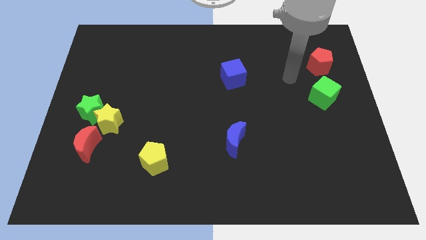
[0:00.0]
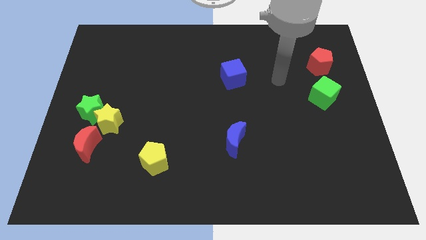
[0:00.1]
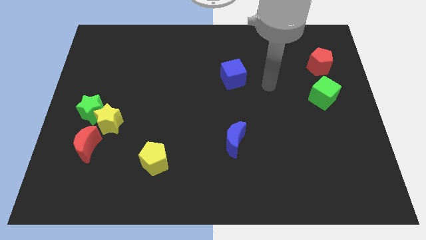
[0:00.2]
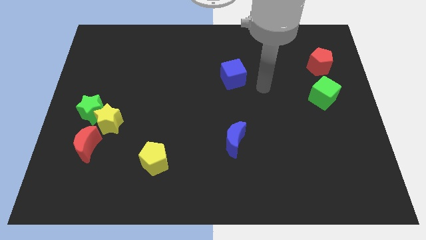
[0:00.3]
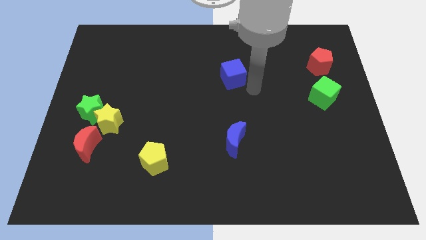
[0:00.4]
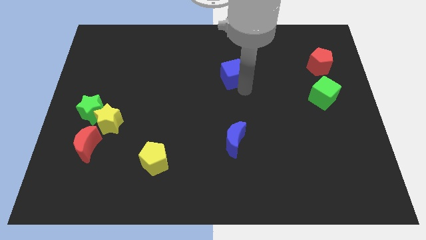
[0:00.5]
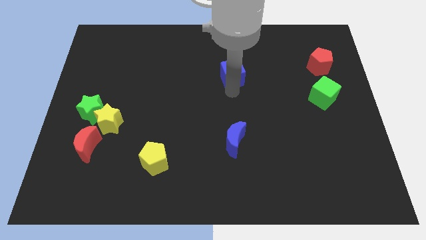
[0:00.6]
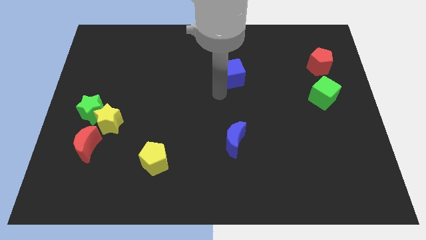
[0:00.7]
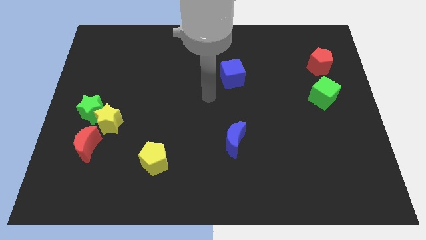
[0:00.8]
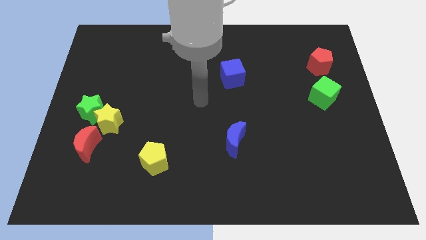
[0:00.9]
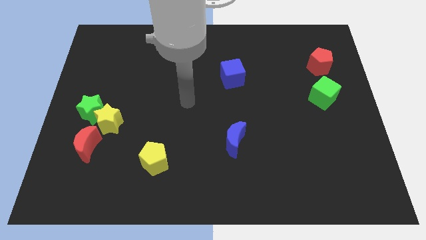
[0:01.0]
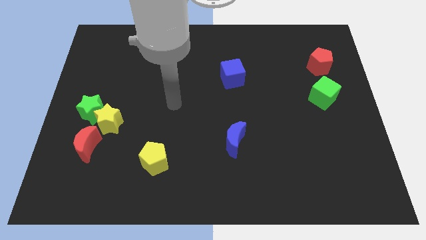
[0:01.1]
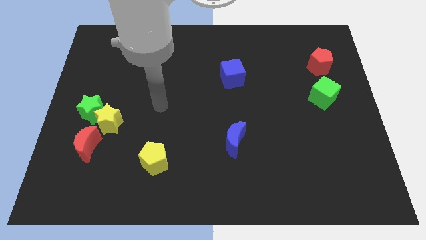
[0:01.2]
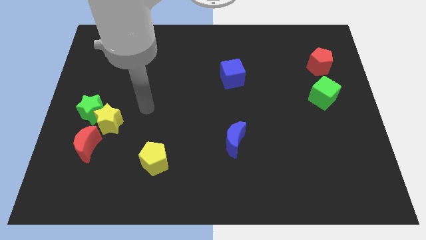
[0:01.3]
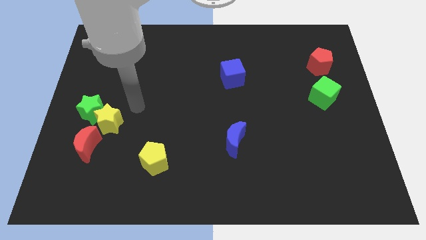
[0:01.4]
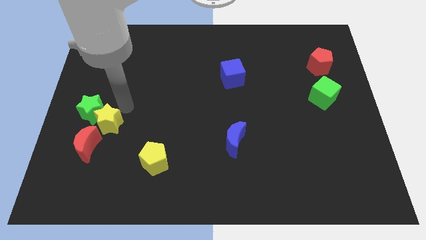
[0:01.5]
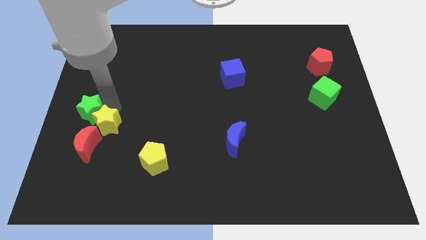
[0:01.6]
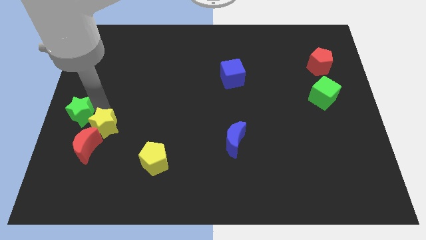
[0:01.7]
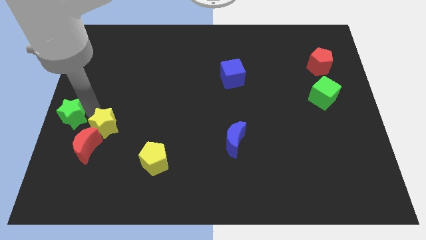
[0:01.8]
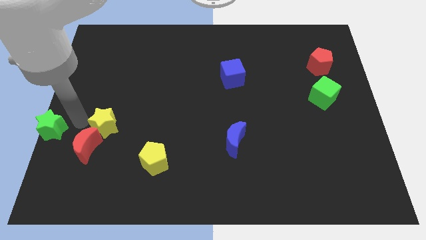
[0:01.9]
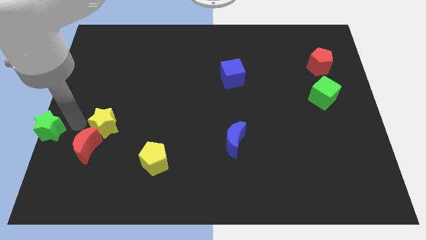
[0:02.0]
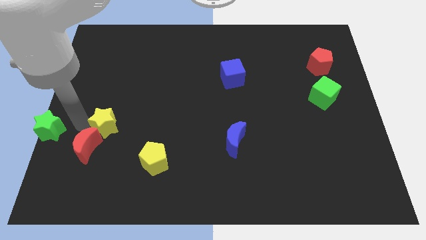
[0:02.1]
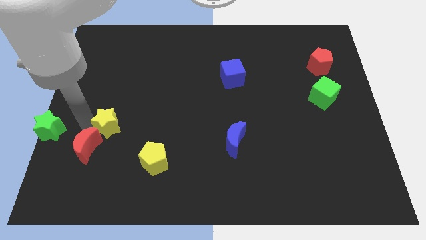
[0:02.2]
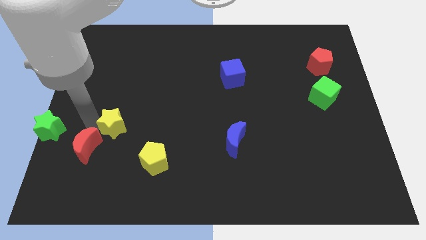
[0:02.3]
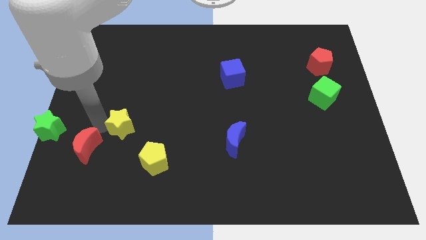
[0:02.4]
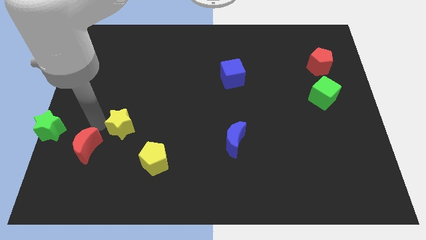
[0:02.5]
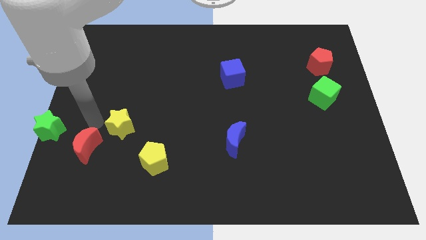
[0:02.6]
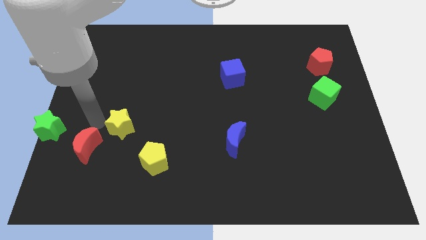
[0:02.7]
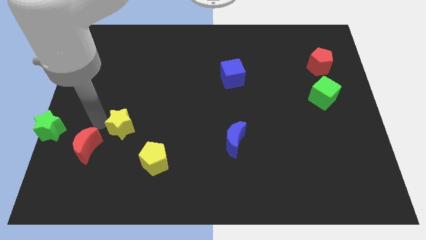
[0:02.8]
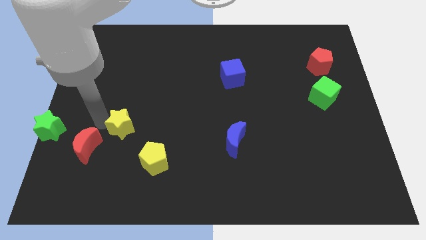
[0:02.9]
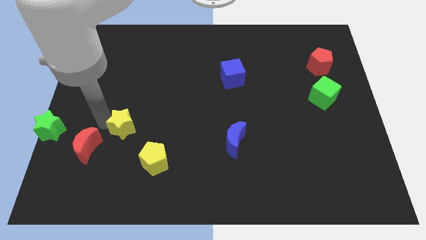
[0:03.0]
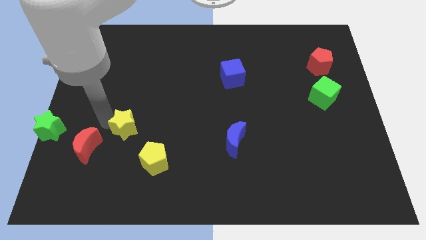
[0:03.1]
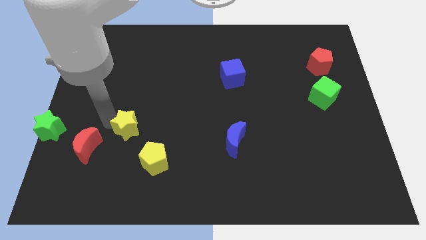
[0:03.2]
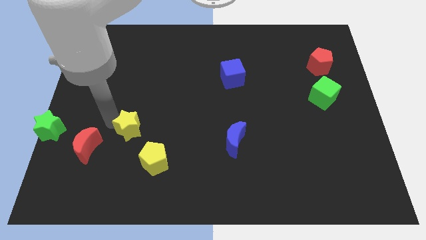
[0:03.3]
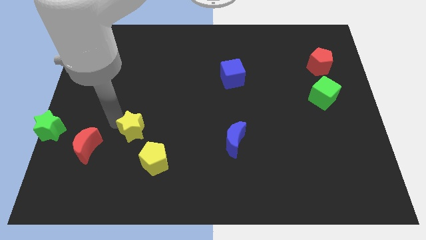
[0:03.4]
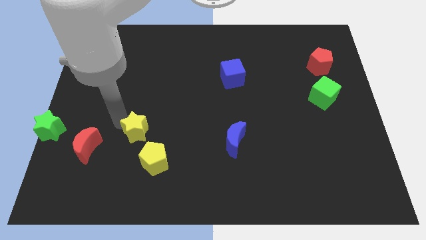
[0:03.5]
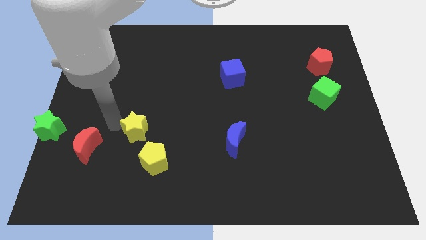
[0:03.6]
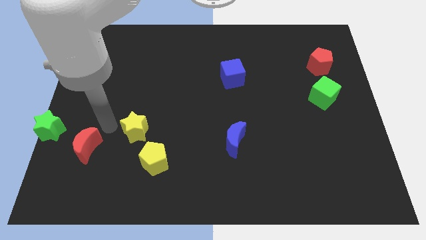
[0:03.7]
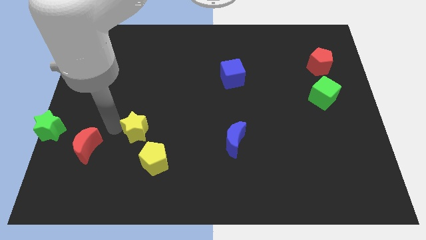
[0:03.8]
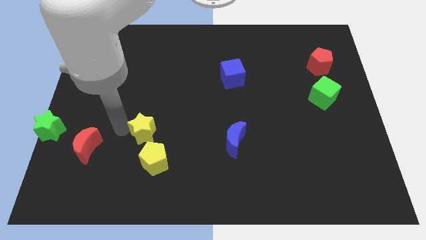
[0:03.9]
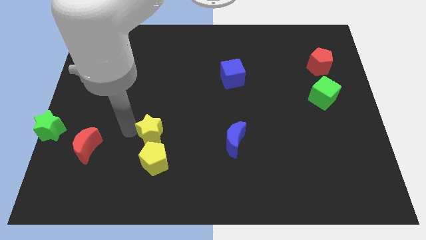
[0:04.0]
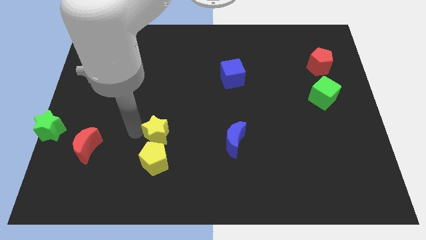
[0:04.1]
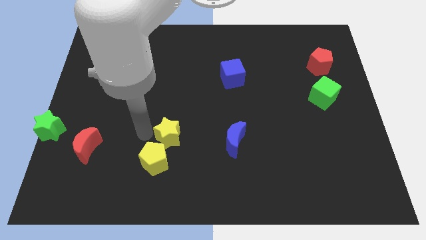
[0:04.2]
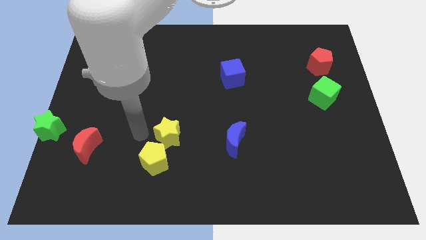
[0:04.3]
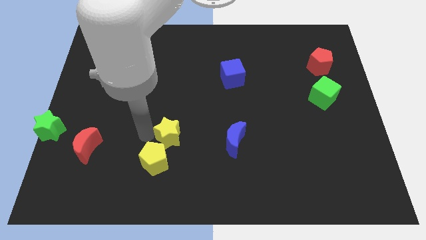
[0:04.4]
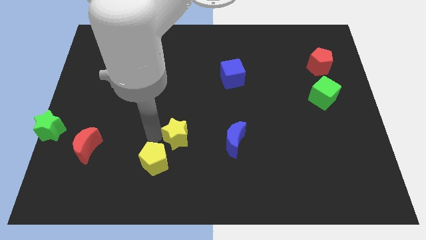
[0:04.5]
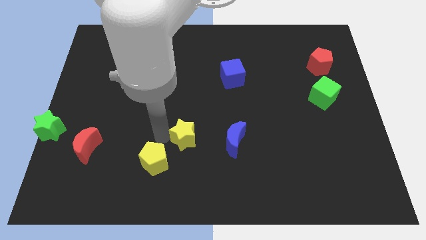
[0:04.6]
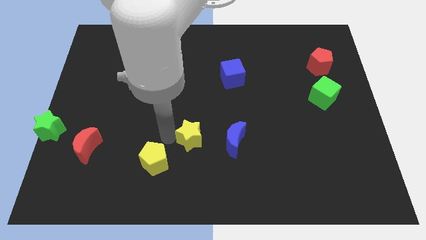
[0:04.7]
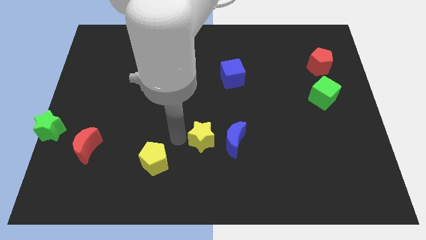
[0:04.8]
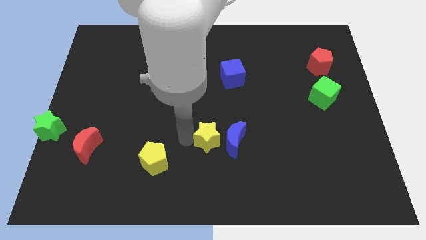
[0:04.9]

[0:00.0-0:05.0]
put the yellow star close to the blue moon

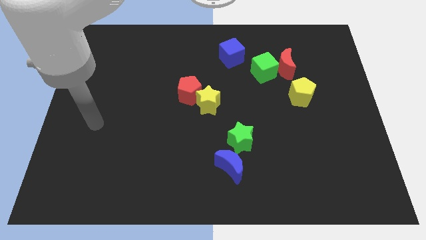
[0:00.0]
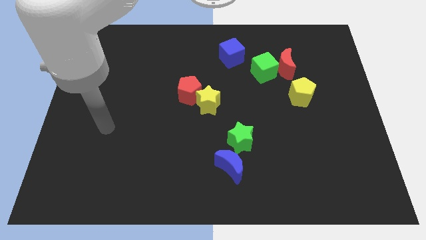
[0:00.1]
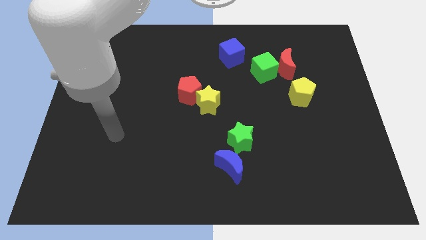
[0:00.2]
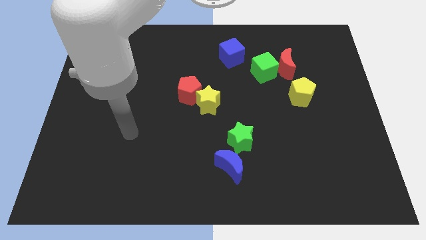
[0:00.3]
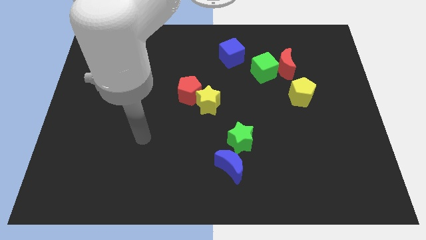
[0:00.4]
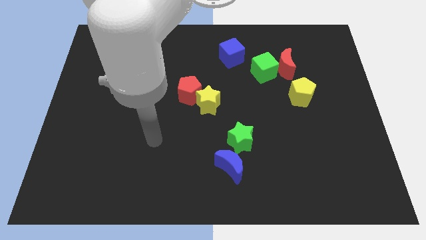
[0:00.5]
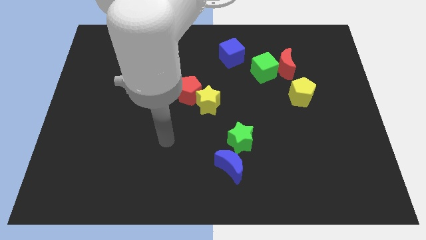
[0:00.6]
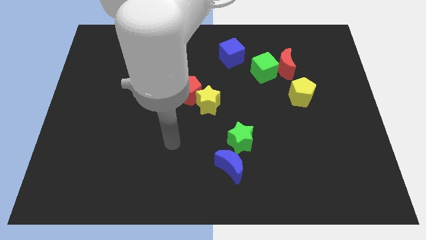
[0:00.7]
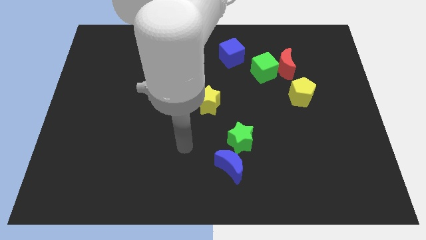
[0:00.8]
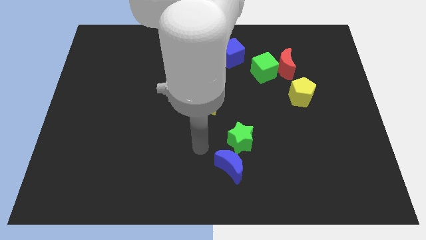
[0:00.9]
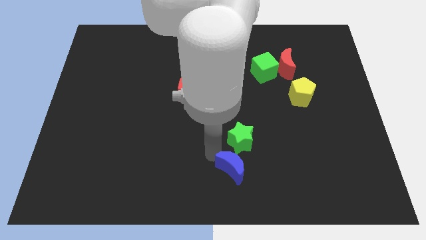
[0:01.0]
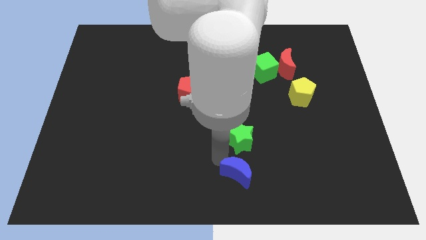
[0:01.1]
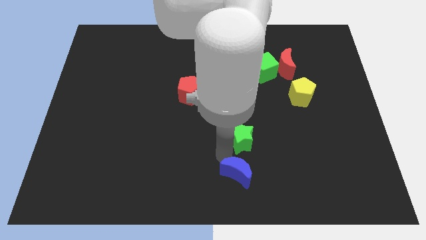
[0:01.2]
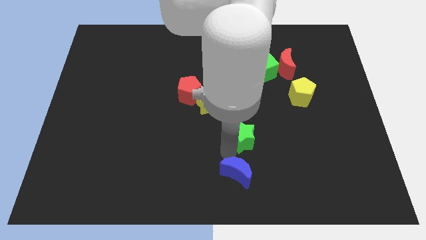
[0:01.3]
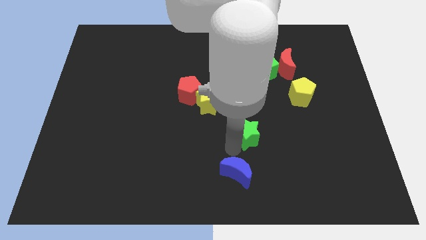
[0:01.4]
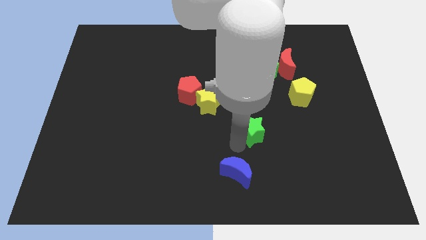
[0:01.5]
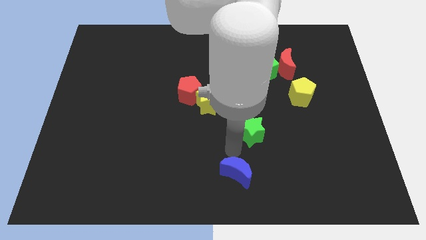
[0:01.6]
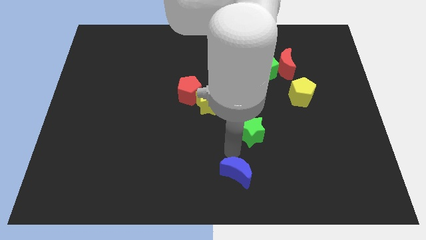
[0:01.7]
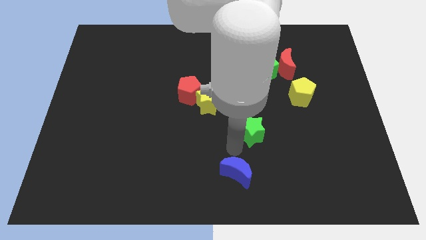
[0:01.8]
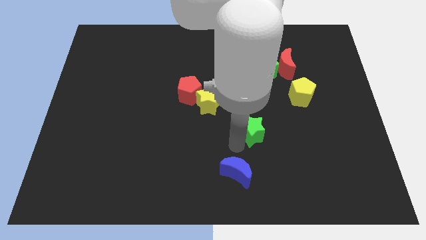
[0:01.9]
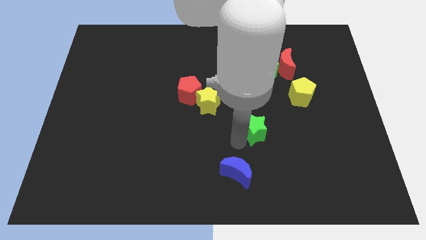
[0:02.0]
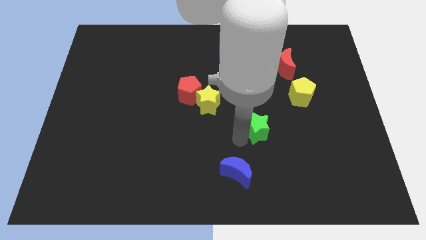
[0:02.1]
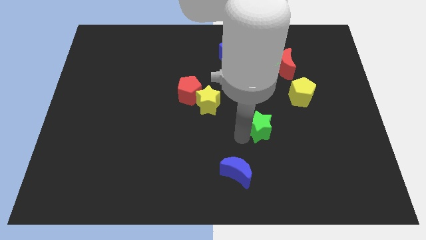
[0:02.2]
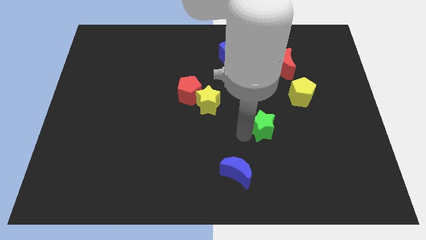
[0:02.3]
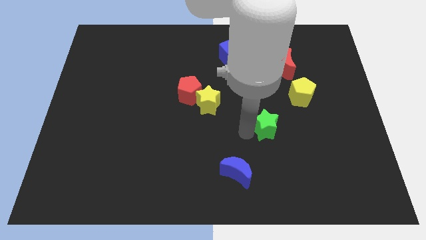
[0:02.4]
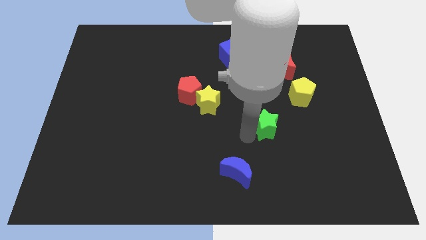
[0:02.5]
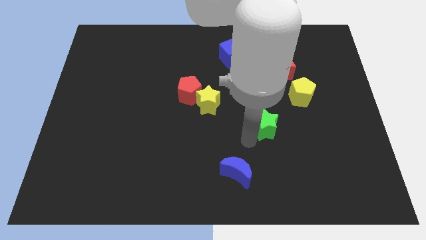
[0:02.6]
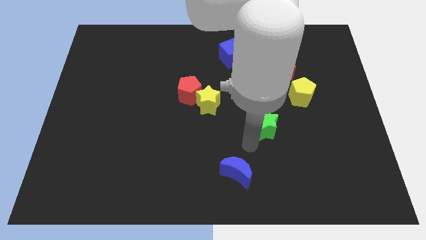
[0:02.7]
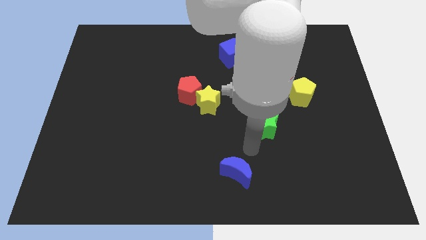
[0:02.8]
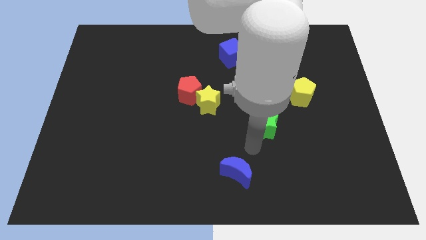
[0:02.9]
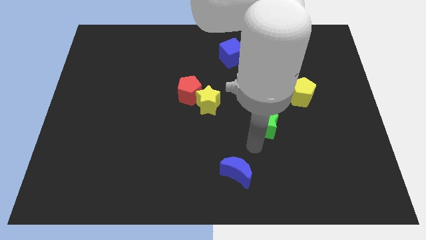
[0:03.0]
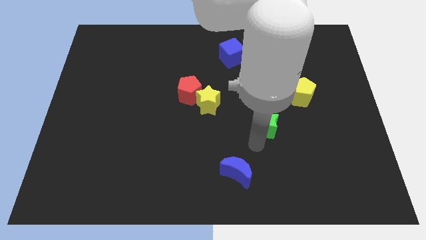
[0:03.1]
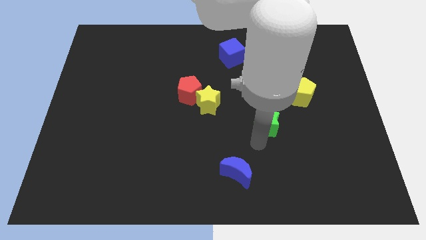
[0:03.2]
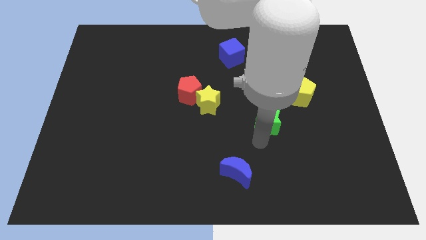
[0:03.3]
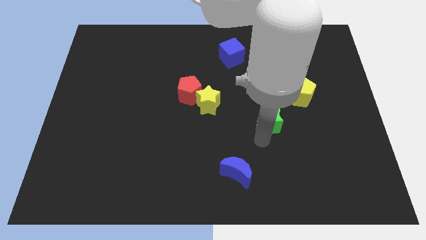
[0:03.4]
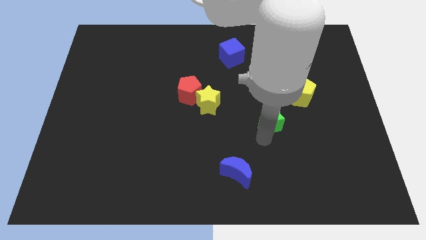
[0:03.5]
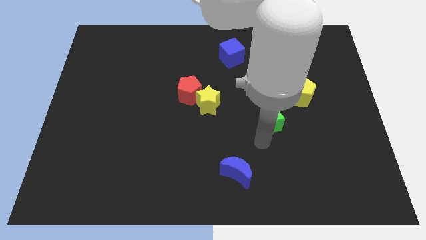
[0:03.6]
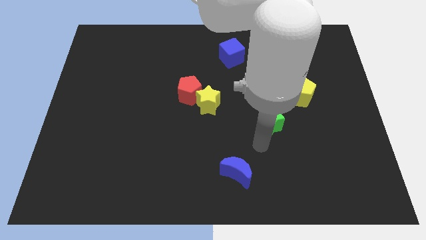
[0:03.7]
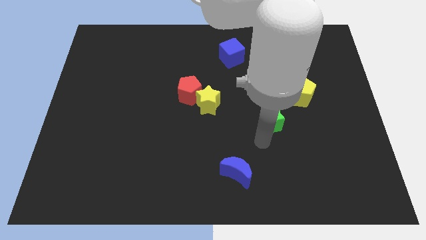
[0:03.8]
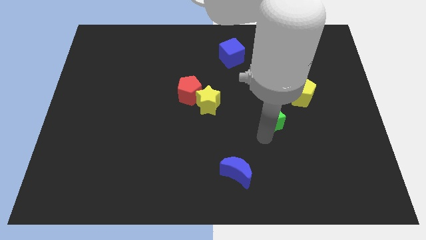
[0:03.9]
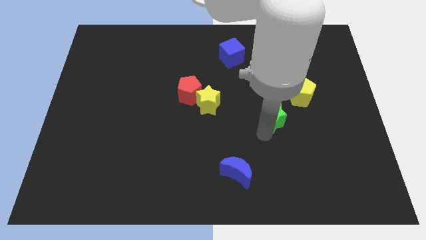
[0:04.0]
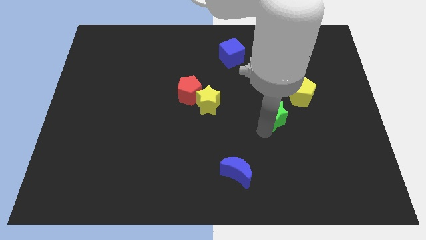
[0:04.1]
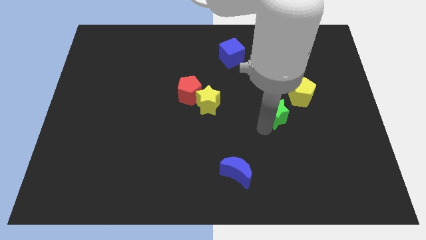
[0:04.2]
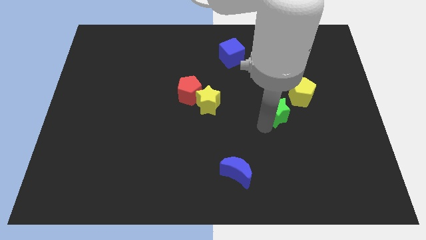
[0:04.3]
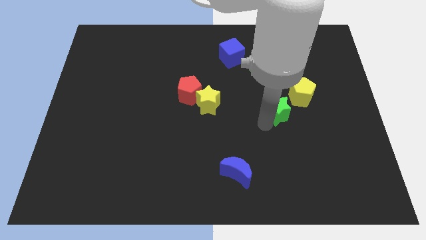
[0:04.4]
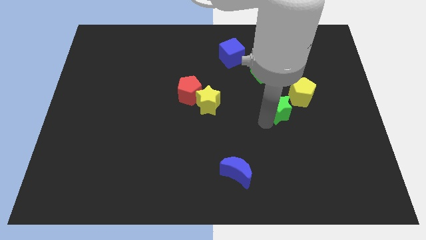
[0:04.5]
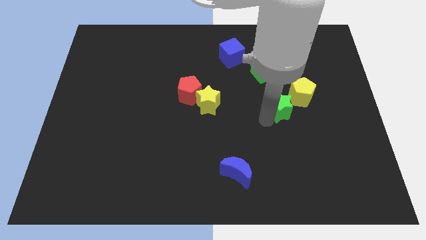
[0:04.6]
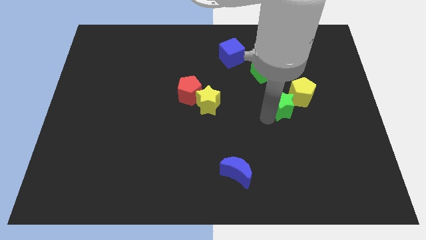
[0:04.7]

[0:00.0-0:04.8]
push the green star towards the yellow pentagon
